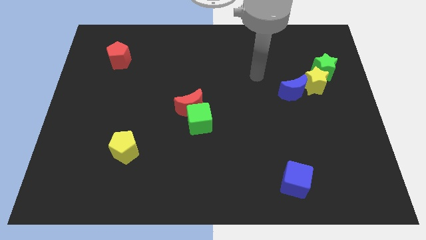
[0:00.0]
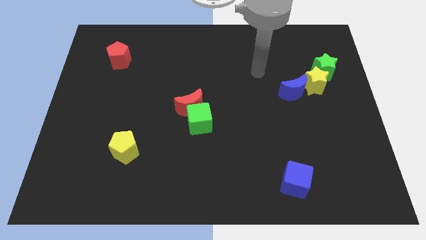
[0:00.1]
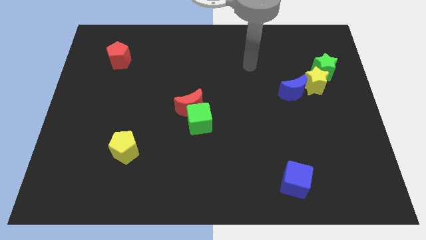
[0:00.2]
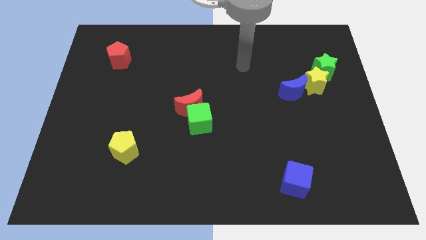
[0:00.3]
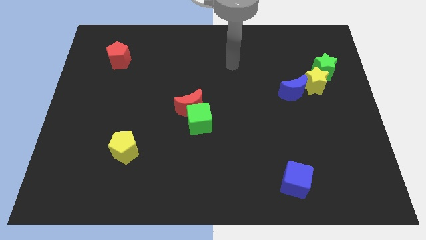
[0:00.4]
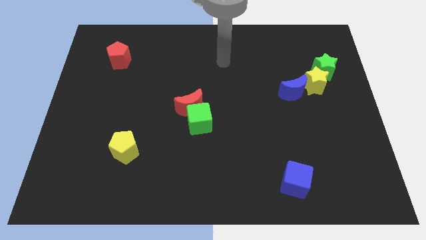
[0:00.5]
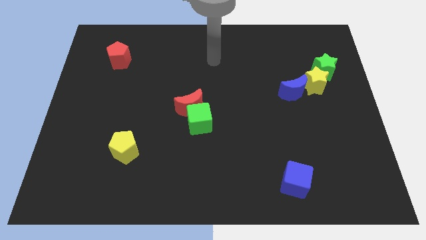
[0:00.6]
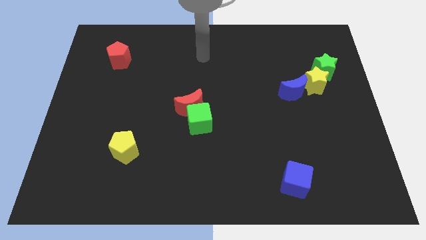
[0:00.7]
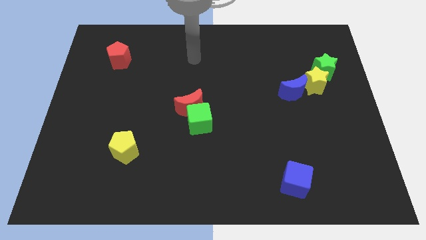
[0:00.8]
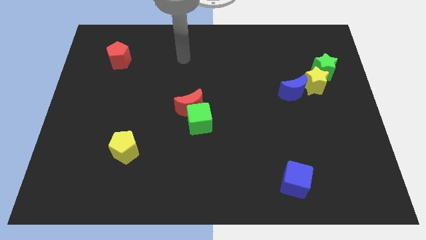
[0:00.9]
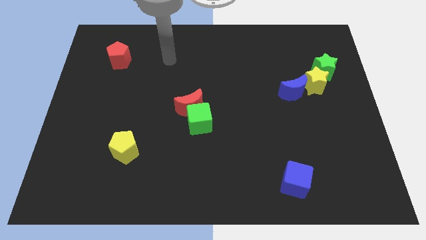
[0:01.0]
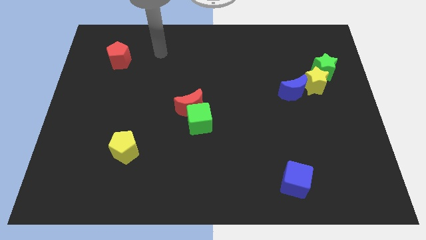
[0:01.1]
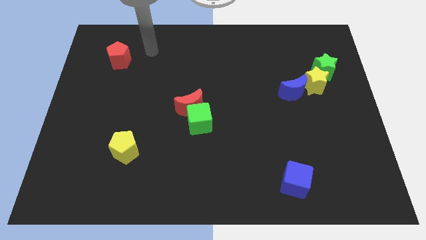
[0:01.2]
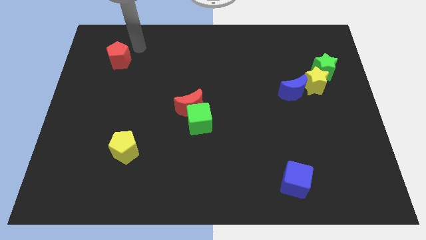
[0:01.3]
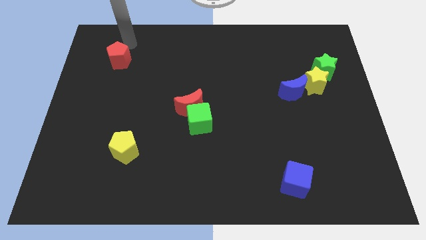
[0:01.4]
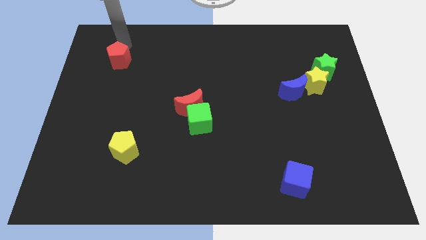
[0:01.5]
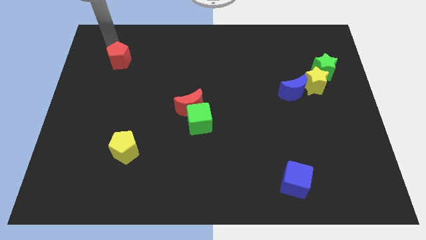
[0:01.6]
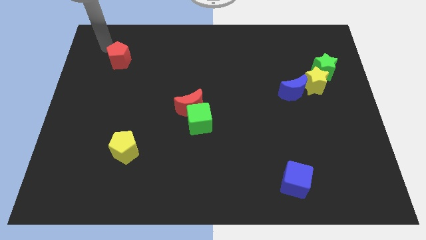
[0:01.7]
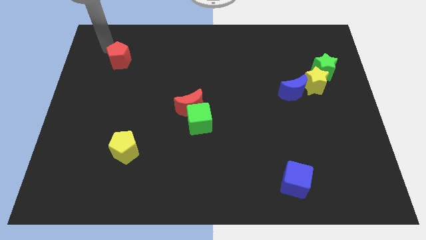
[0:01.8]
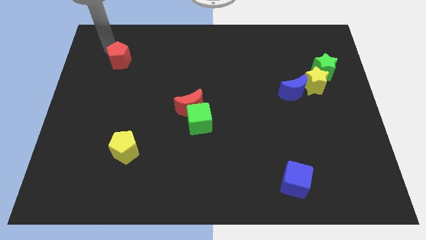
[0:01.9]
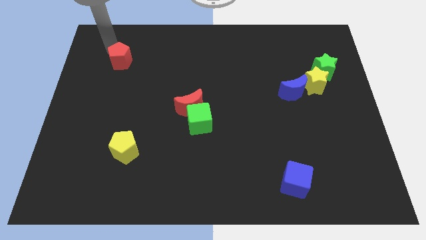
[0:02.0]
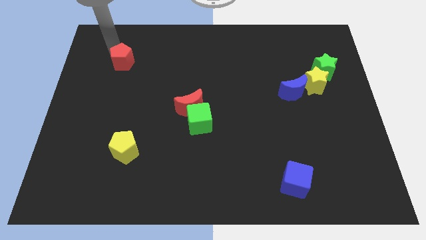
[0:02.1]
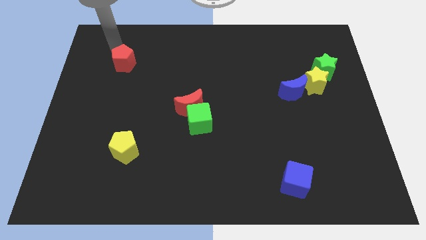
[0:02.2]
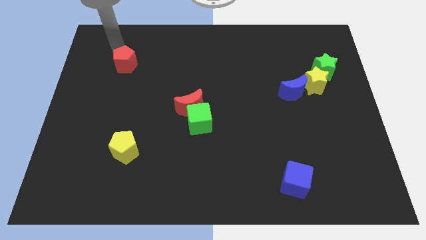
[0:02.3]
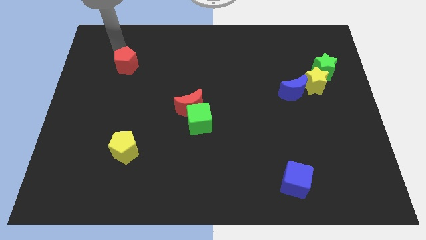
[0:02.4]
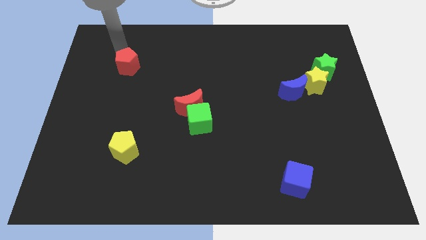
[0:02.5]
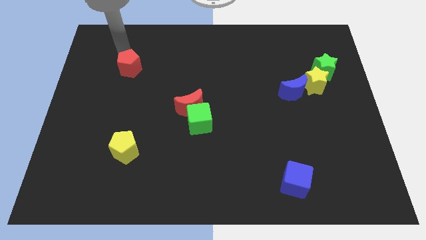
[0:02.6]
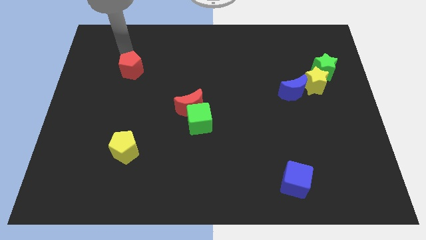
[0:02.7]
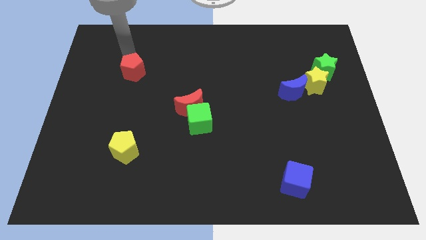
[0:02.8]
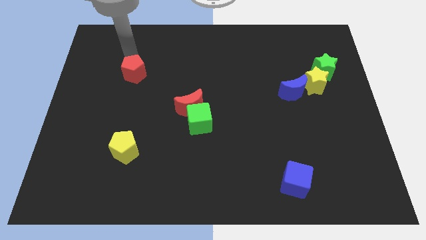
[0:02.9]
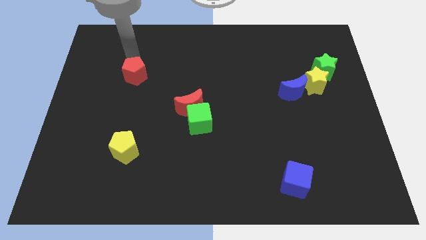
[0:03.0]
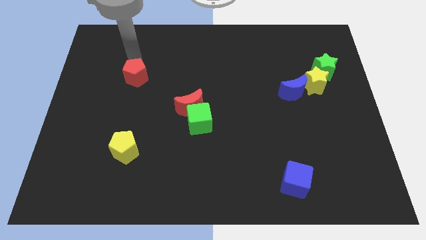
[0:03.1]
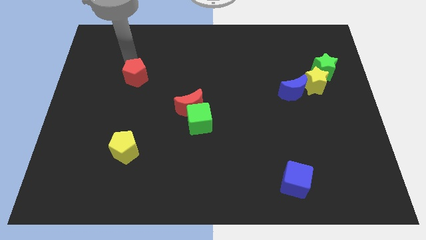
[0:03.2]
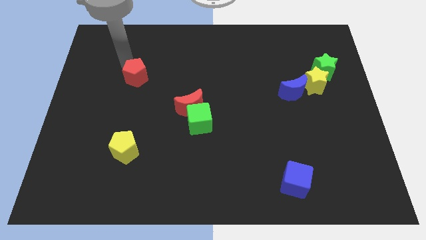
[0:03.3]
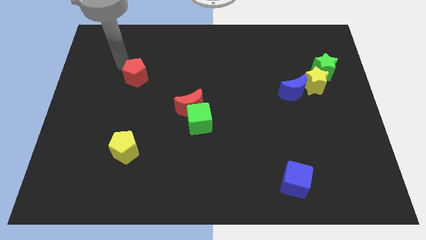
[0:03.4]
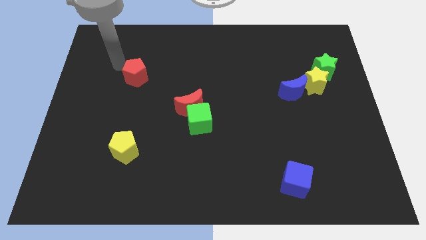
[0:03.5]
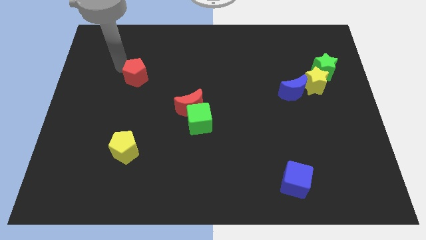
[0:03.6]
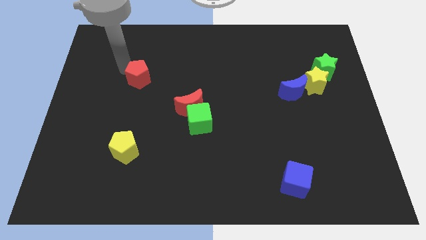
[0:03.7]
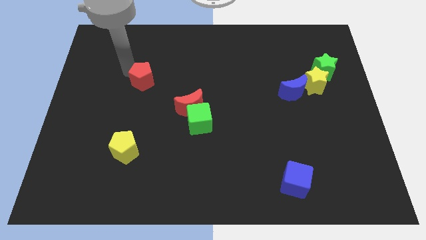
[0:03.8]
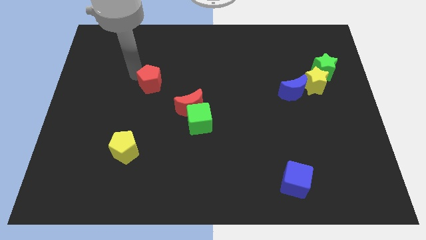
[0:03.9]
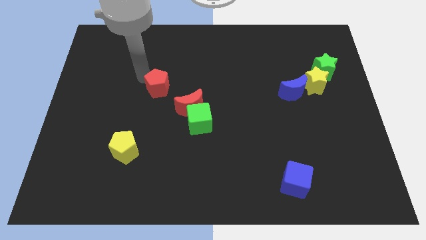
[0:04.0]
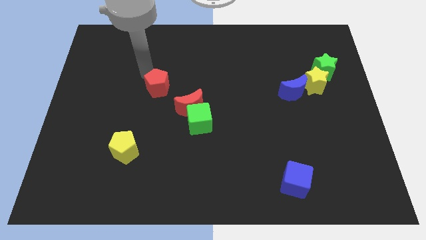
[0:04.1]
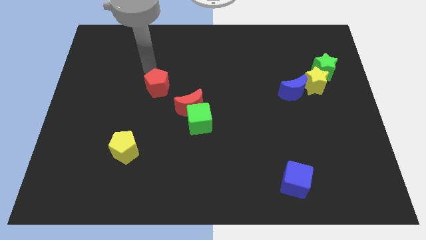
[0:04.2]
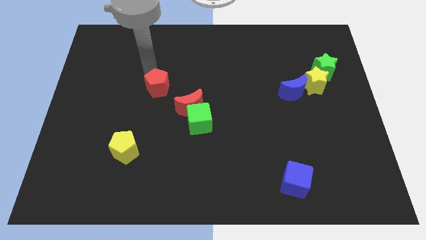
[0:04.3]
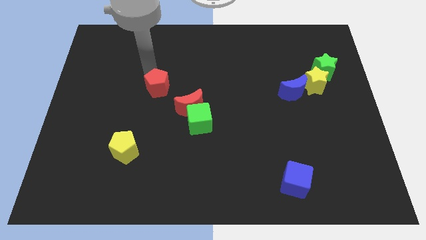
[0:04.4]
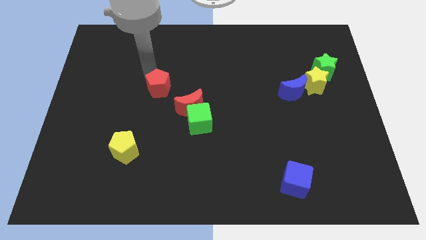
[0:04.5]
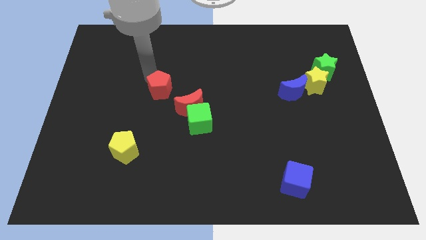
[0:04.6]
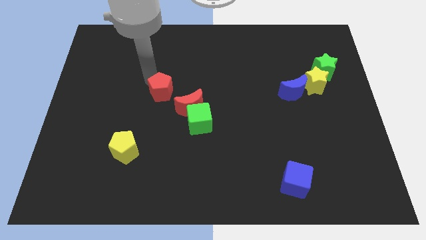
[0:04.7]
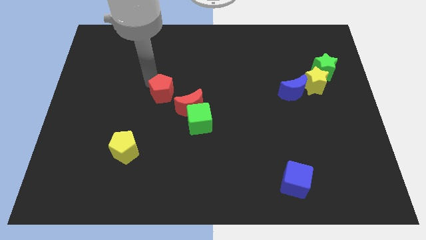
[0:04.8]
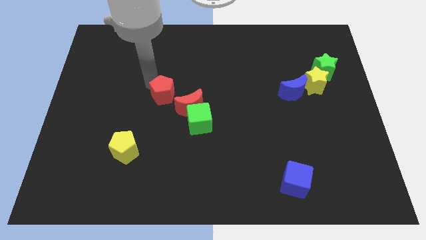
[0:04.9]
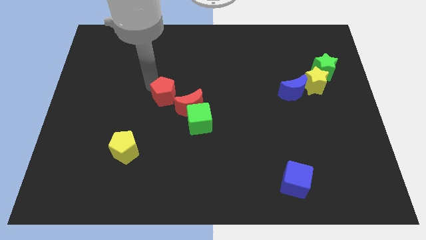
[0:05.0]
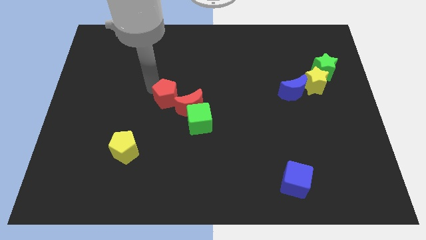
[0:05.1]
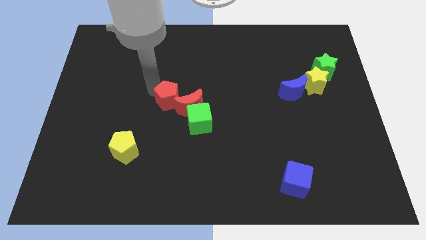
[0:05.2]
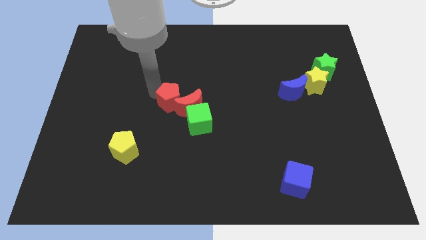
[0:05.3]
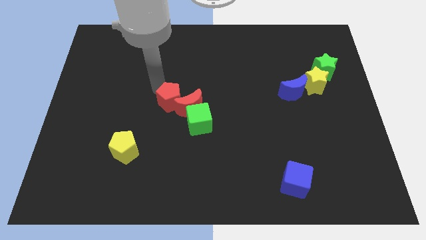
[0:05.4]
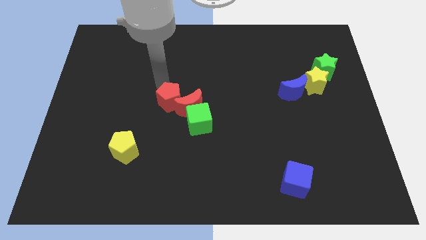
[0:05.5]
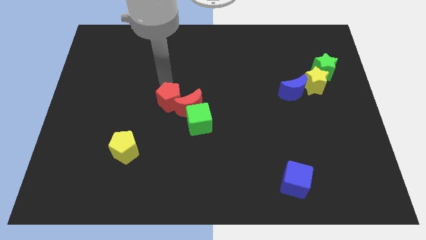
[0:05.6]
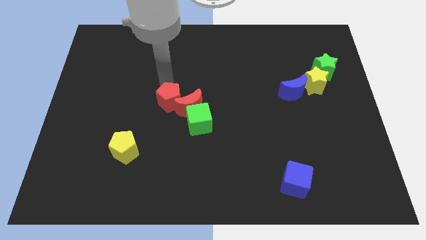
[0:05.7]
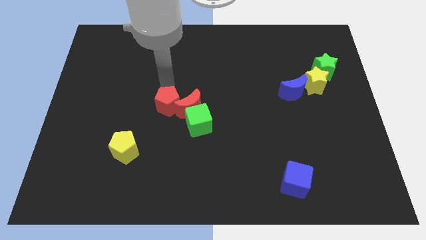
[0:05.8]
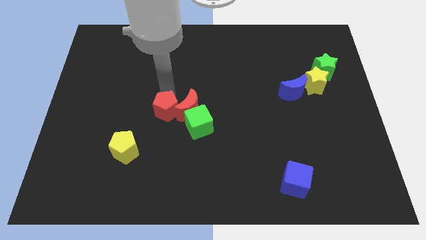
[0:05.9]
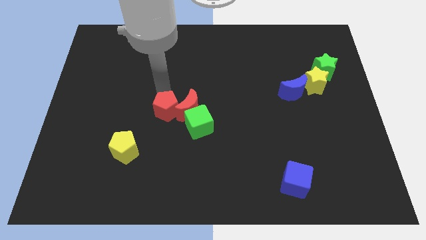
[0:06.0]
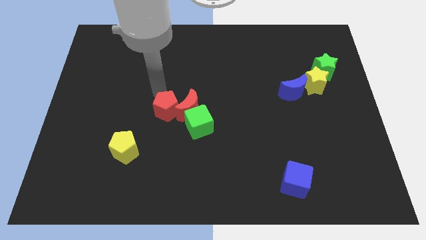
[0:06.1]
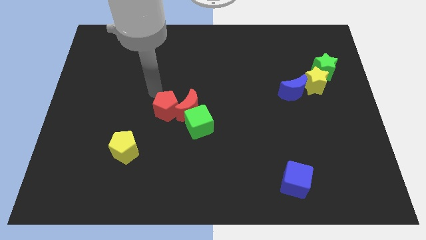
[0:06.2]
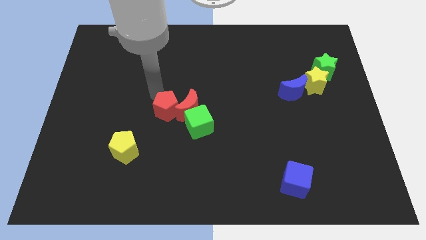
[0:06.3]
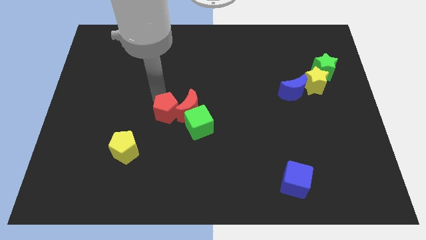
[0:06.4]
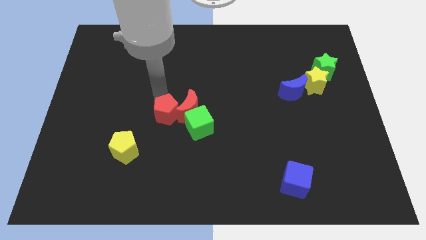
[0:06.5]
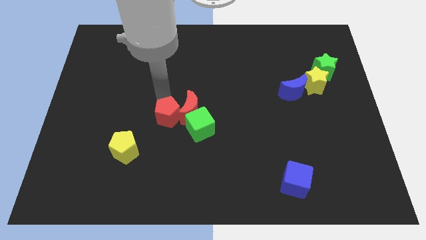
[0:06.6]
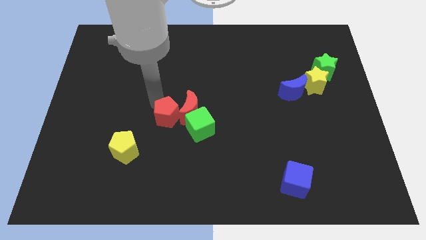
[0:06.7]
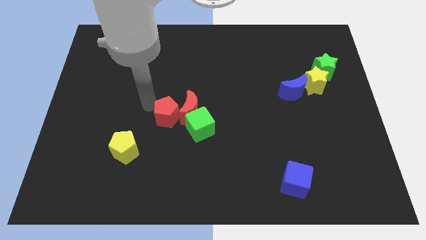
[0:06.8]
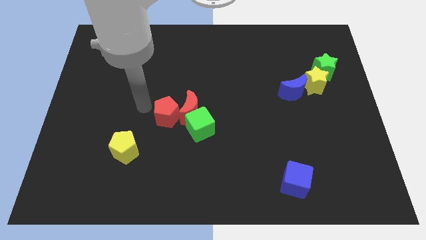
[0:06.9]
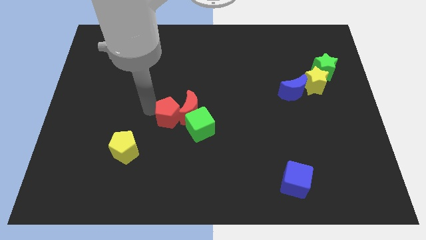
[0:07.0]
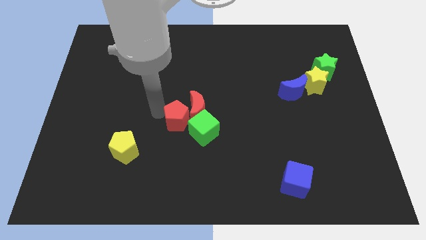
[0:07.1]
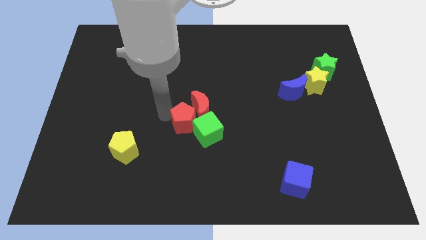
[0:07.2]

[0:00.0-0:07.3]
push the red pentagon next to the green cube

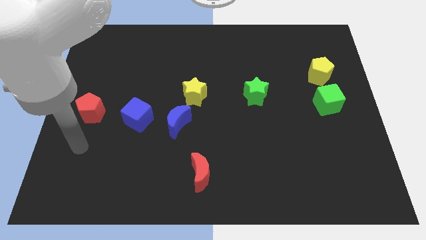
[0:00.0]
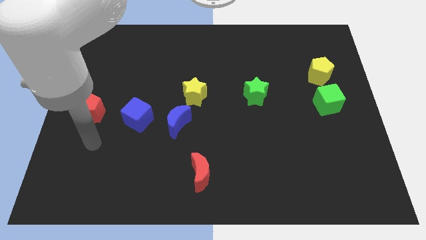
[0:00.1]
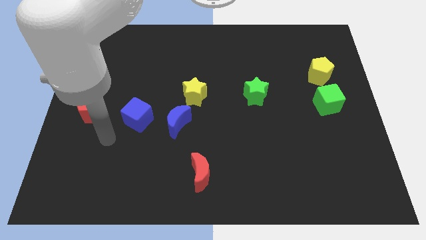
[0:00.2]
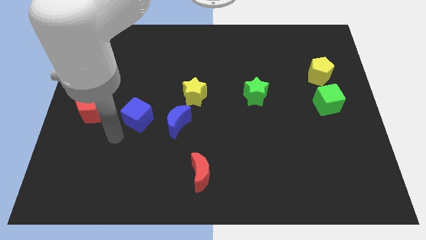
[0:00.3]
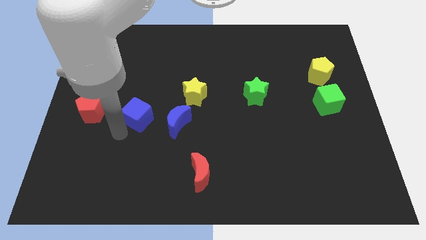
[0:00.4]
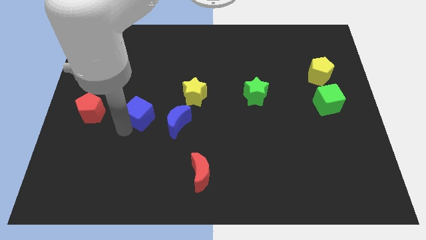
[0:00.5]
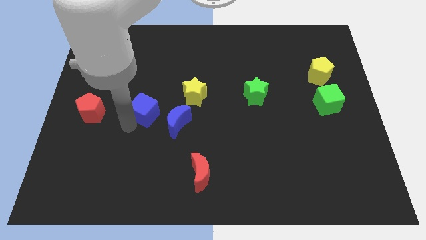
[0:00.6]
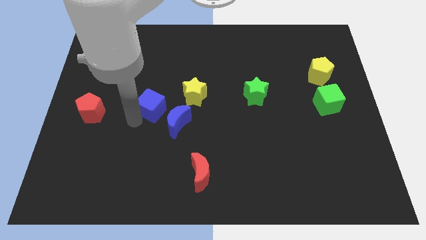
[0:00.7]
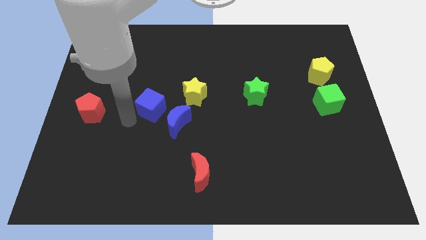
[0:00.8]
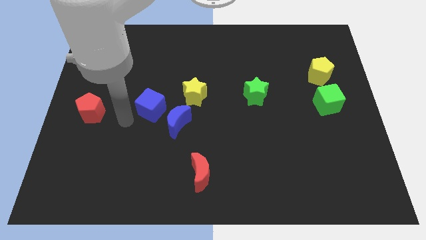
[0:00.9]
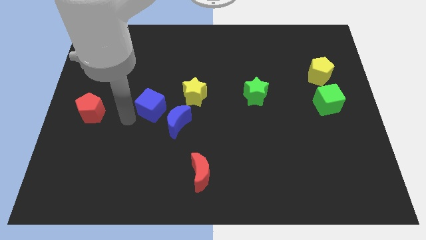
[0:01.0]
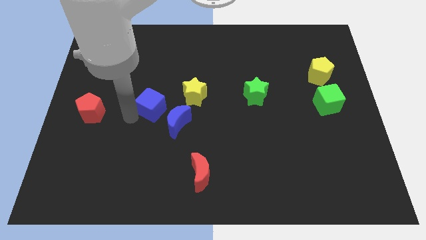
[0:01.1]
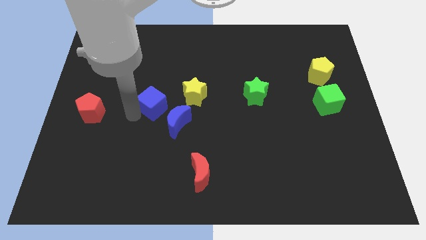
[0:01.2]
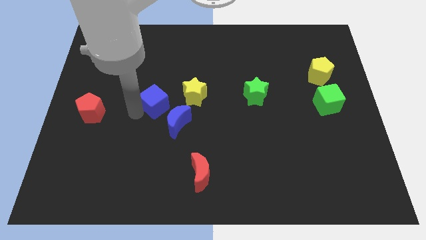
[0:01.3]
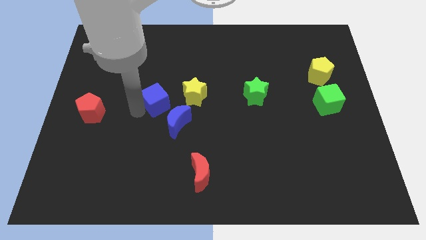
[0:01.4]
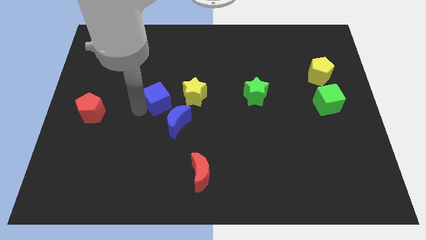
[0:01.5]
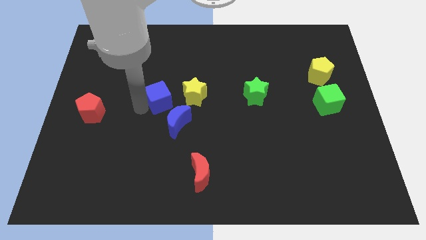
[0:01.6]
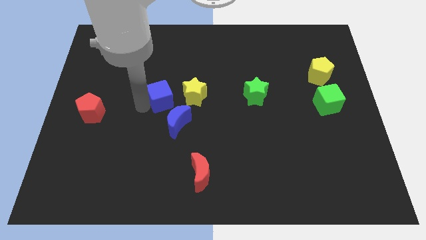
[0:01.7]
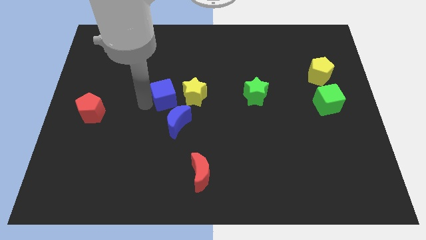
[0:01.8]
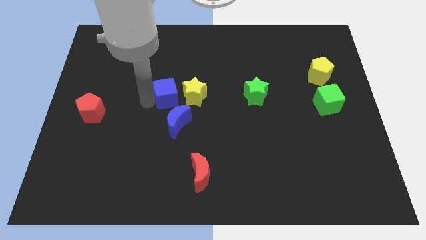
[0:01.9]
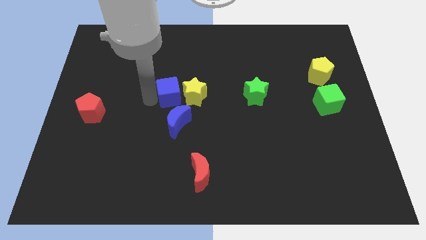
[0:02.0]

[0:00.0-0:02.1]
push the blue cube towards the yellow star
